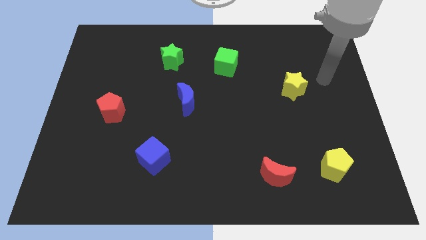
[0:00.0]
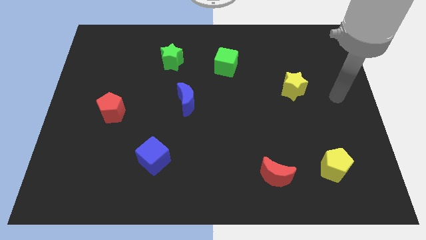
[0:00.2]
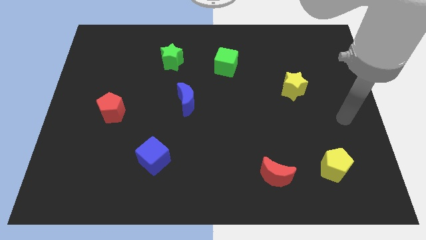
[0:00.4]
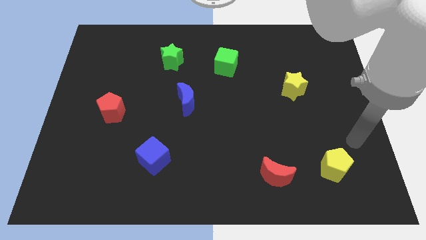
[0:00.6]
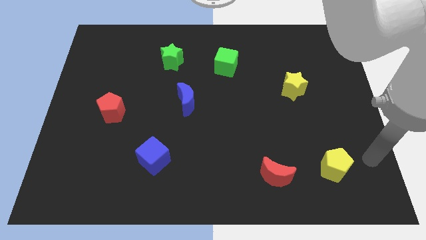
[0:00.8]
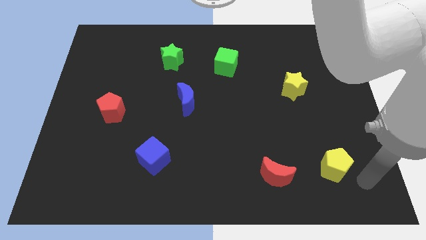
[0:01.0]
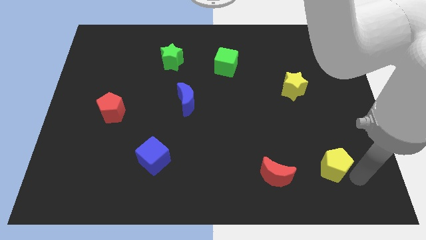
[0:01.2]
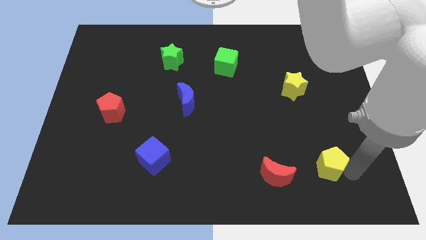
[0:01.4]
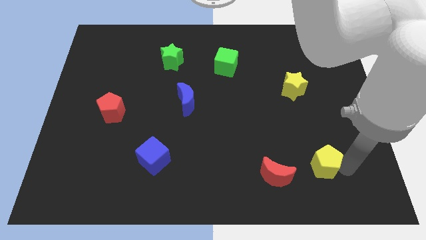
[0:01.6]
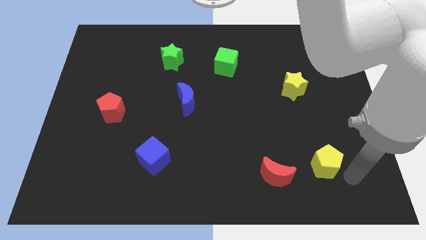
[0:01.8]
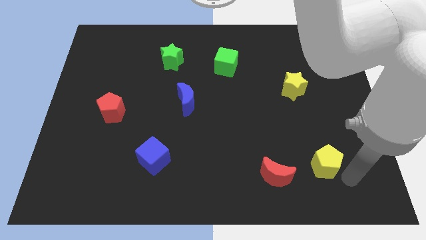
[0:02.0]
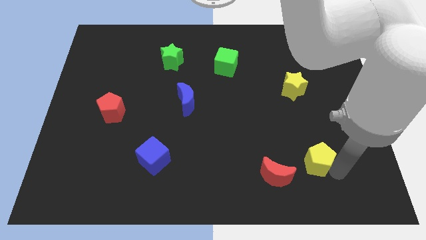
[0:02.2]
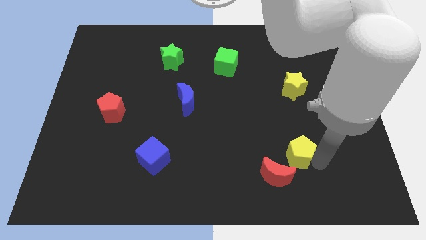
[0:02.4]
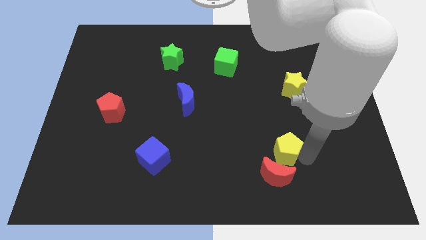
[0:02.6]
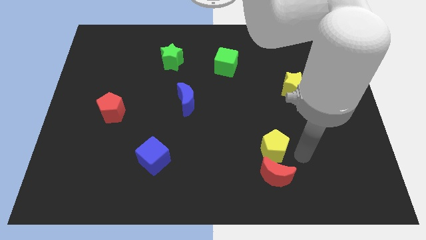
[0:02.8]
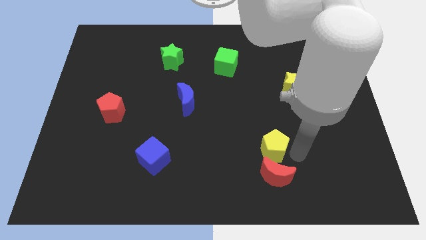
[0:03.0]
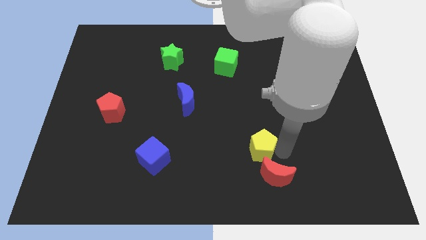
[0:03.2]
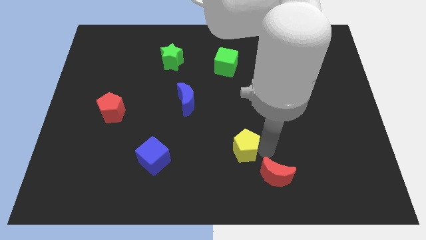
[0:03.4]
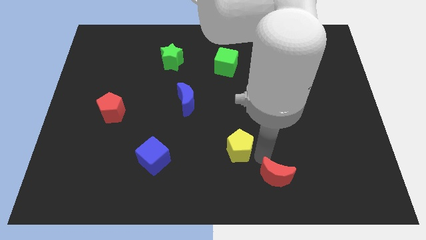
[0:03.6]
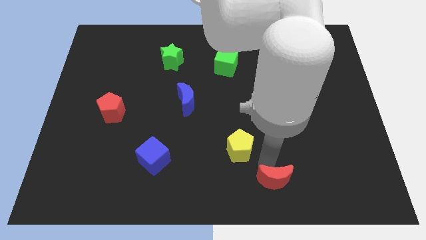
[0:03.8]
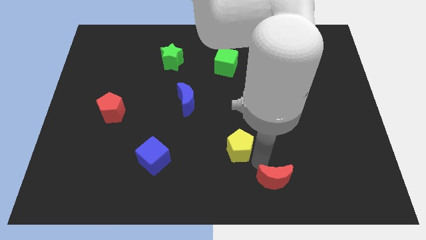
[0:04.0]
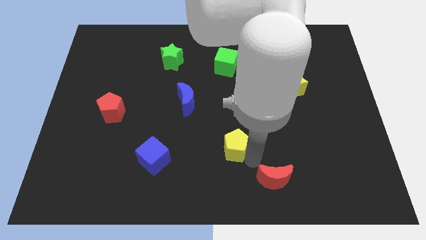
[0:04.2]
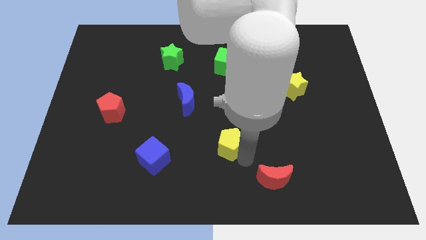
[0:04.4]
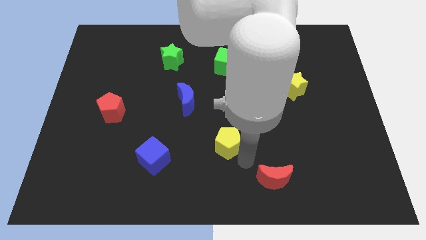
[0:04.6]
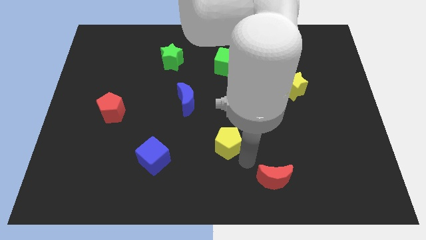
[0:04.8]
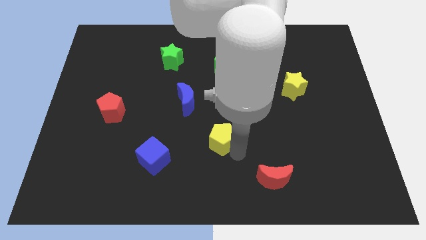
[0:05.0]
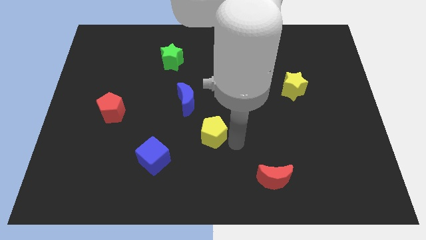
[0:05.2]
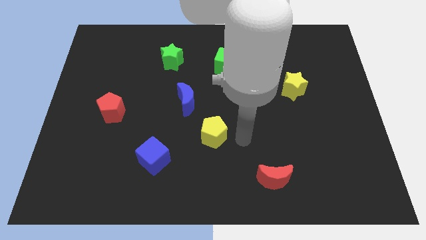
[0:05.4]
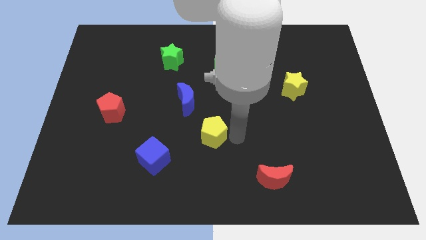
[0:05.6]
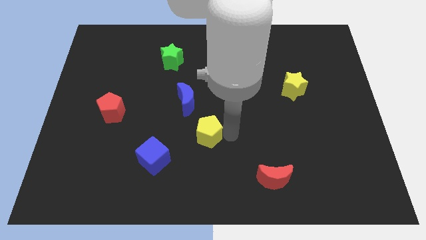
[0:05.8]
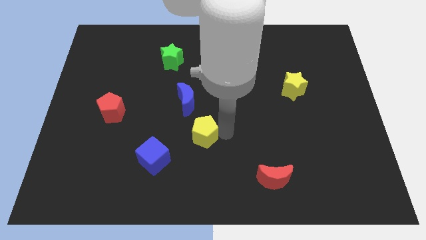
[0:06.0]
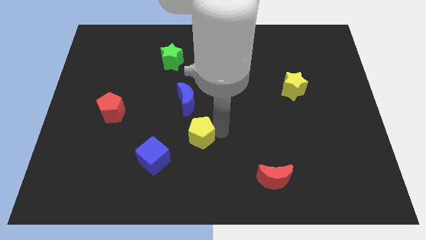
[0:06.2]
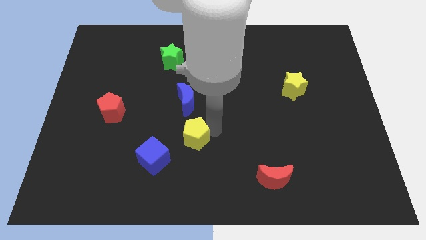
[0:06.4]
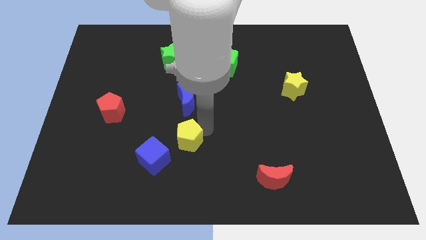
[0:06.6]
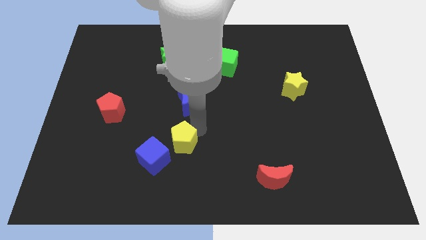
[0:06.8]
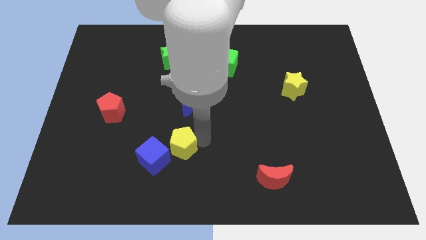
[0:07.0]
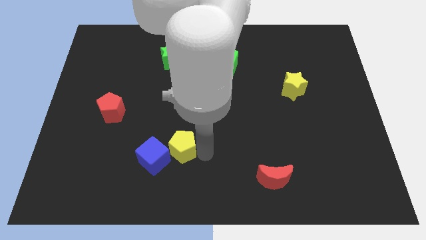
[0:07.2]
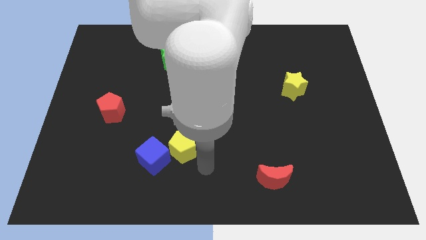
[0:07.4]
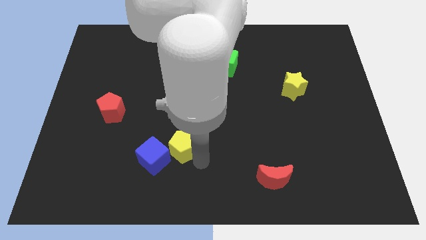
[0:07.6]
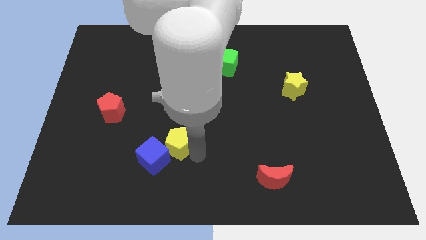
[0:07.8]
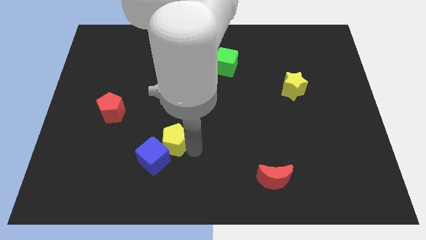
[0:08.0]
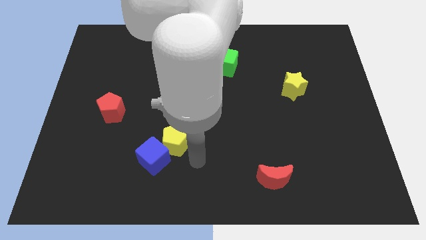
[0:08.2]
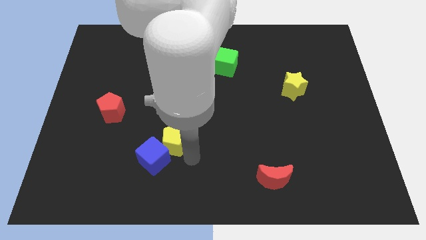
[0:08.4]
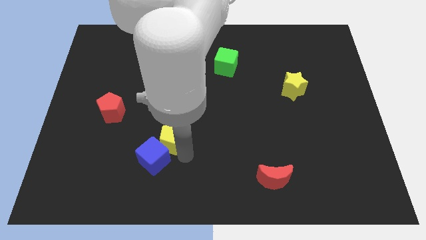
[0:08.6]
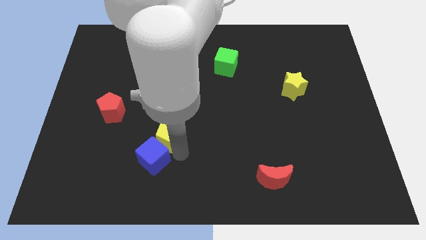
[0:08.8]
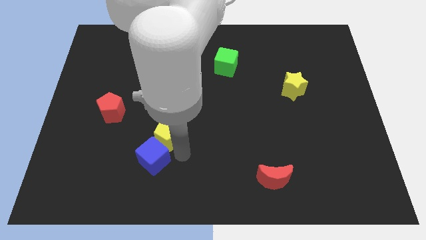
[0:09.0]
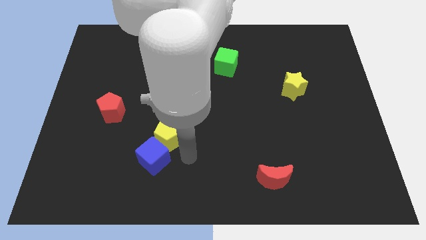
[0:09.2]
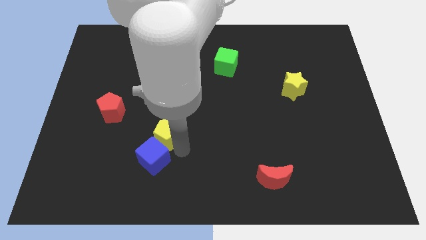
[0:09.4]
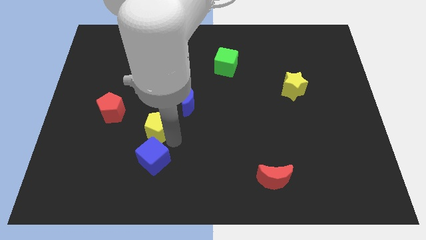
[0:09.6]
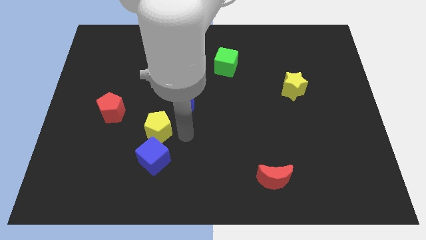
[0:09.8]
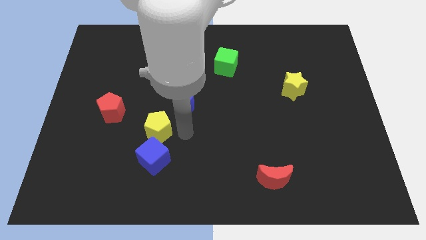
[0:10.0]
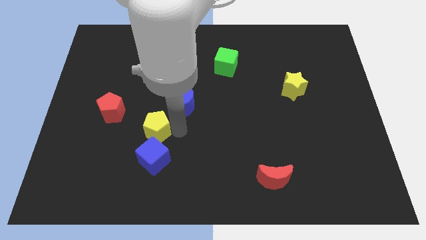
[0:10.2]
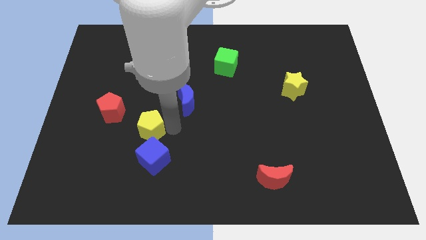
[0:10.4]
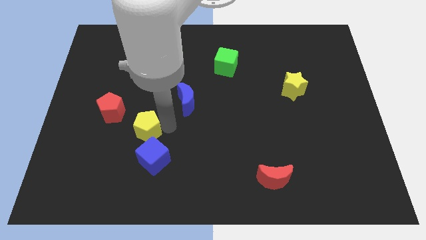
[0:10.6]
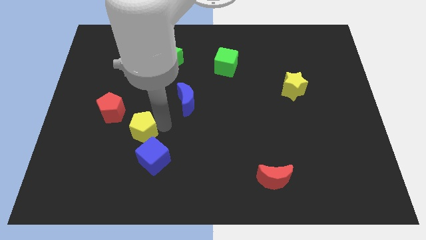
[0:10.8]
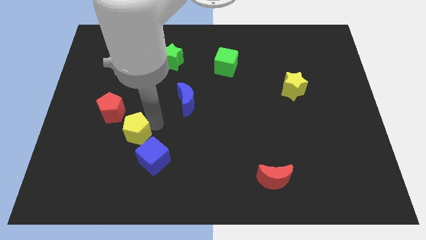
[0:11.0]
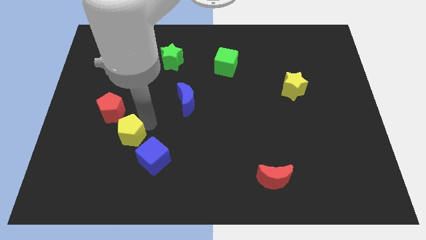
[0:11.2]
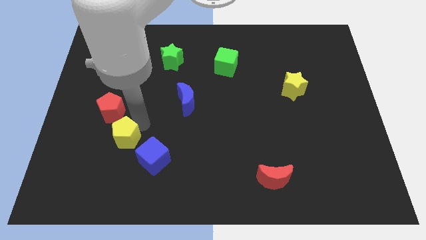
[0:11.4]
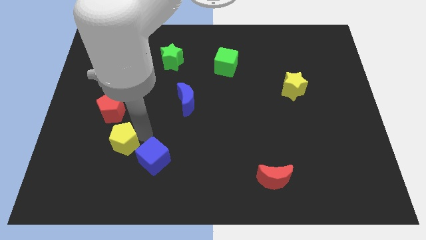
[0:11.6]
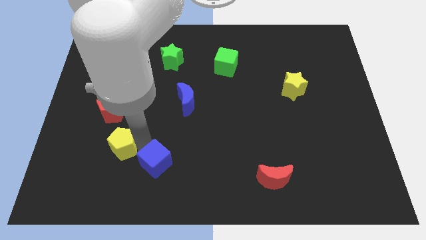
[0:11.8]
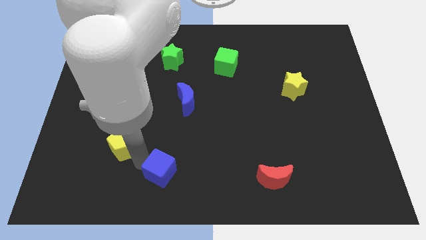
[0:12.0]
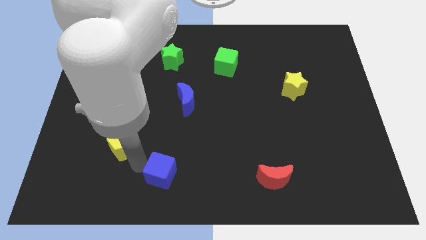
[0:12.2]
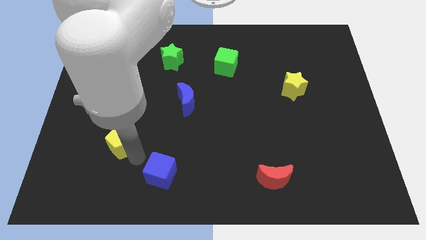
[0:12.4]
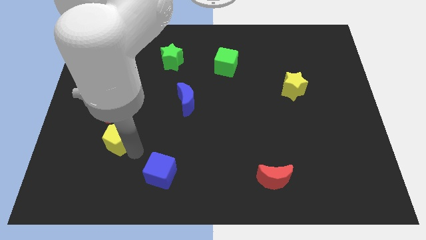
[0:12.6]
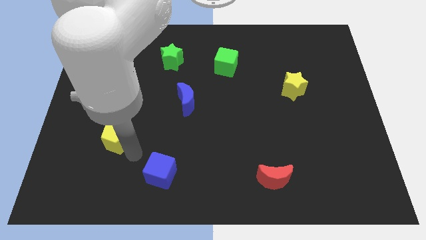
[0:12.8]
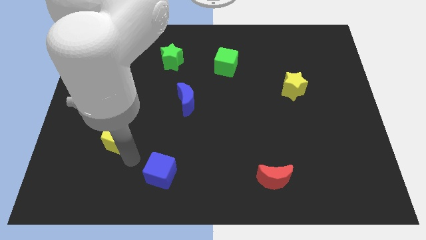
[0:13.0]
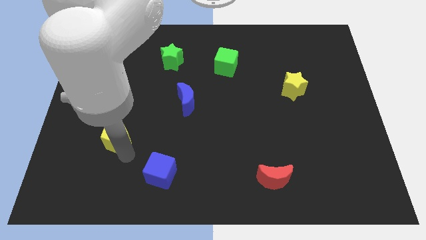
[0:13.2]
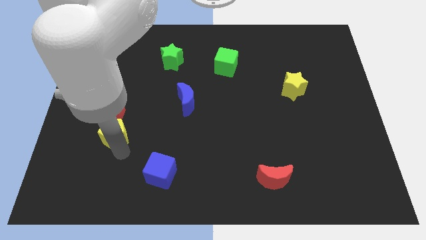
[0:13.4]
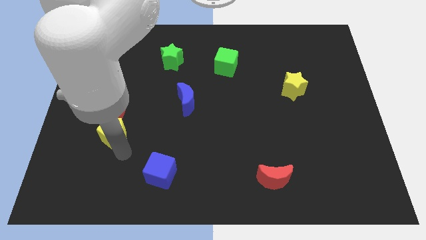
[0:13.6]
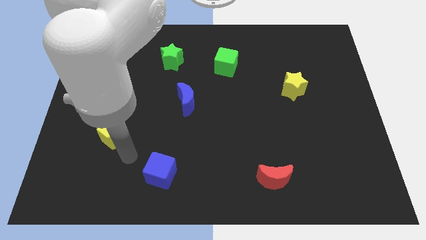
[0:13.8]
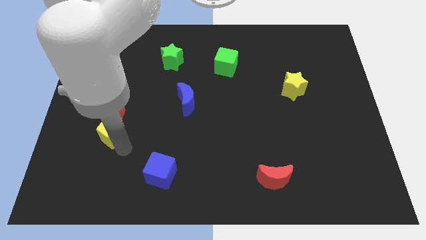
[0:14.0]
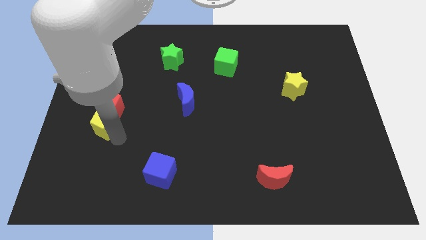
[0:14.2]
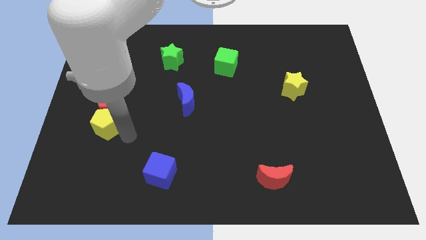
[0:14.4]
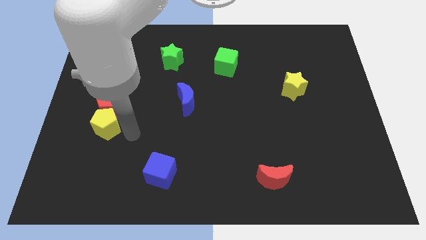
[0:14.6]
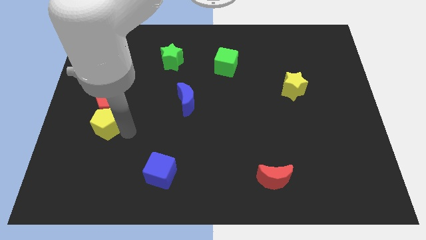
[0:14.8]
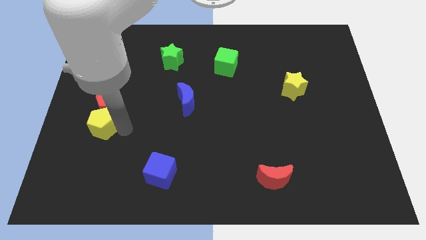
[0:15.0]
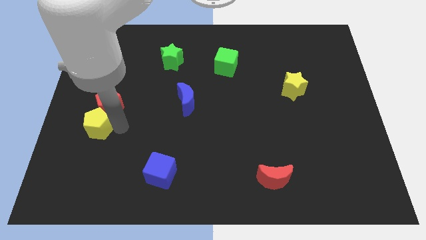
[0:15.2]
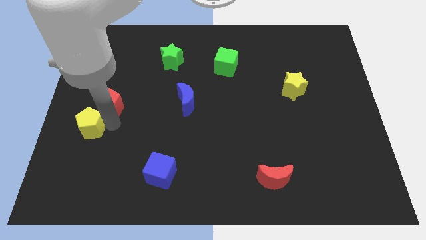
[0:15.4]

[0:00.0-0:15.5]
move the yellow pentagon to the center left

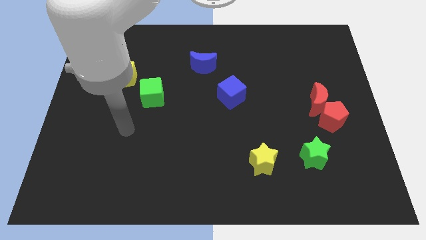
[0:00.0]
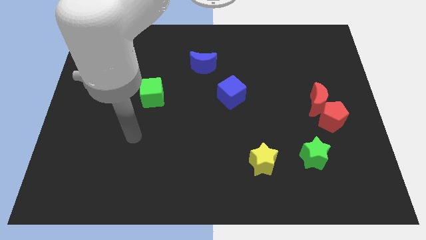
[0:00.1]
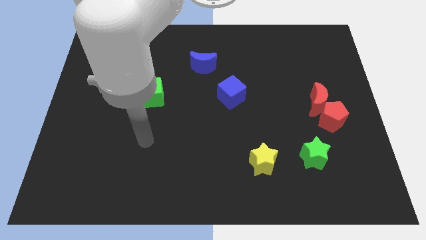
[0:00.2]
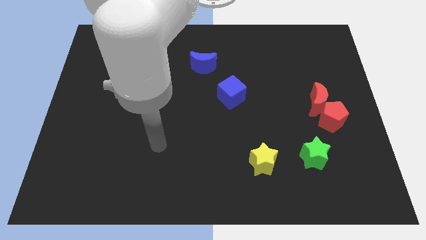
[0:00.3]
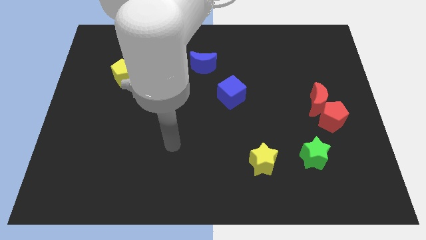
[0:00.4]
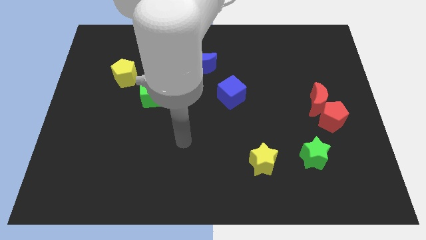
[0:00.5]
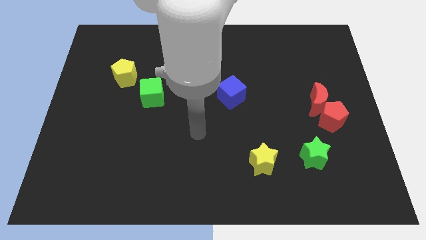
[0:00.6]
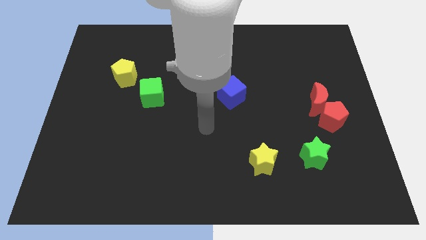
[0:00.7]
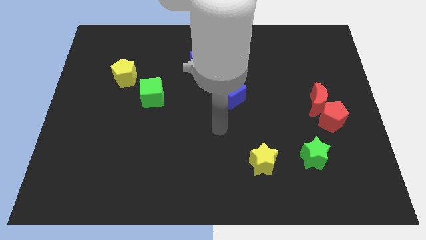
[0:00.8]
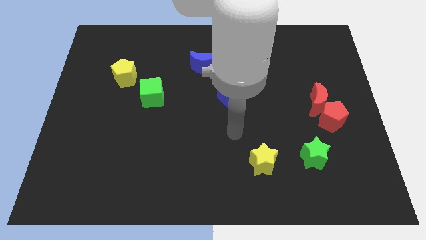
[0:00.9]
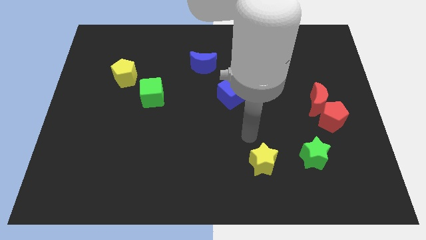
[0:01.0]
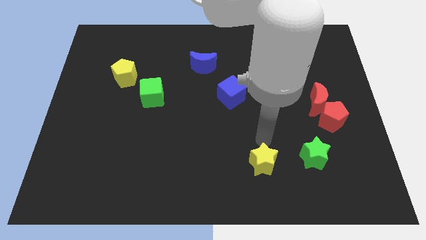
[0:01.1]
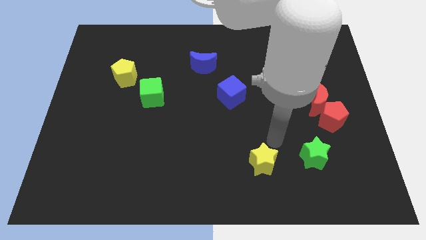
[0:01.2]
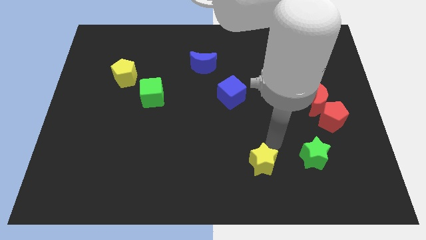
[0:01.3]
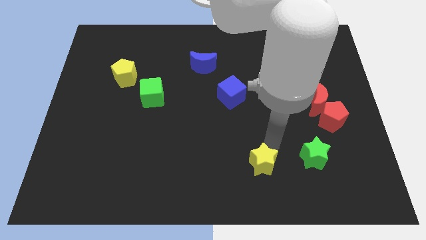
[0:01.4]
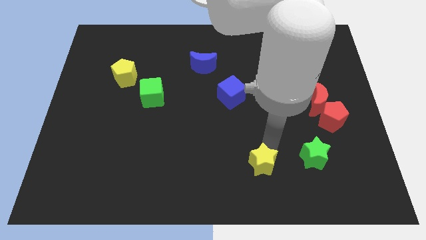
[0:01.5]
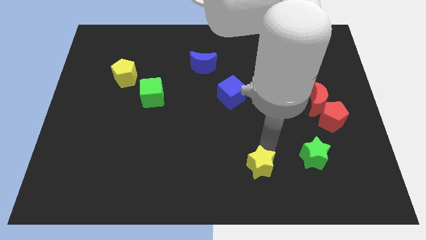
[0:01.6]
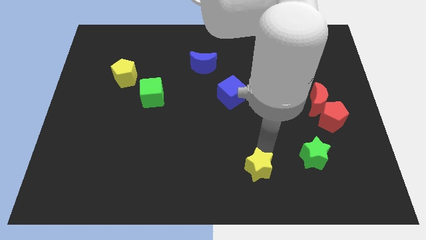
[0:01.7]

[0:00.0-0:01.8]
move the yellow star to the bottom side
